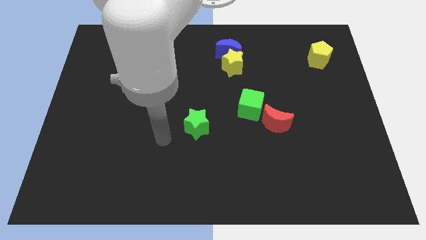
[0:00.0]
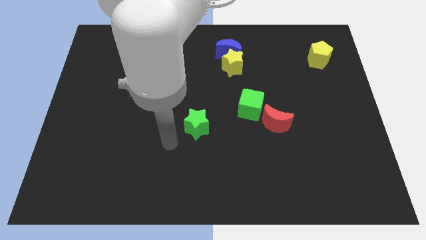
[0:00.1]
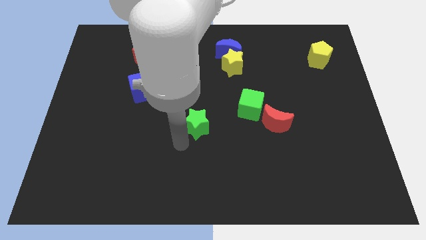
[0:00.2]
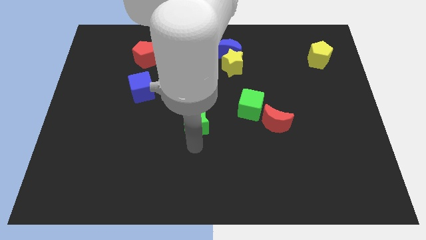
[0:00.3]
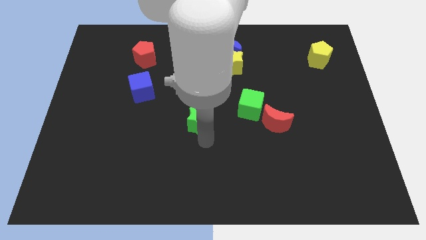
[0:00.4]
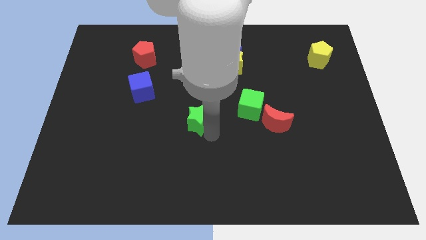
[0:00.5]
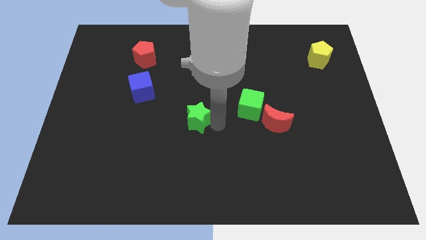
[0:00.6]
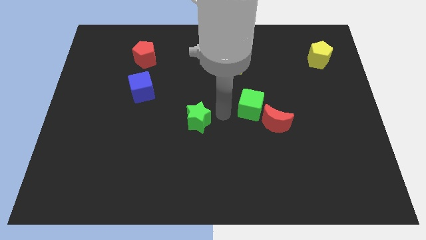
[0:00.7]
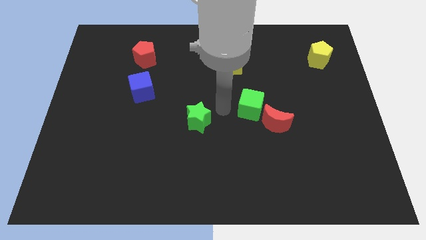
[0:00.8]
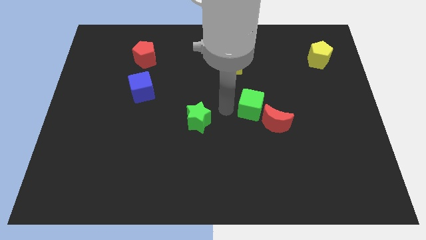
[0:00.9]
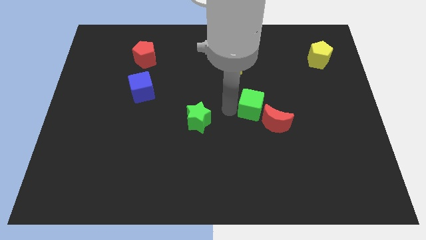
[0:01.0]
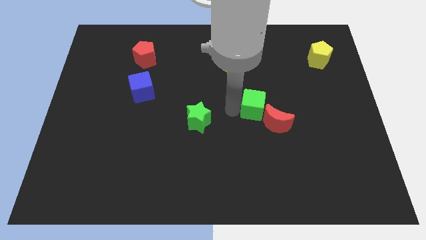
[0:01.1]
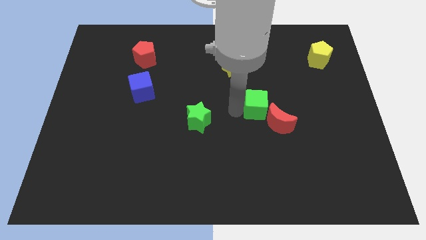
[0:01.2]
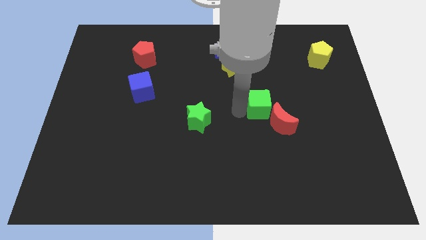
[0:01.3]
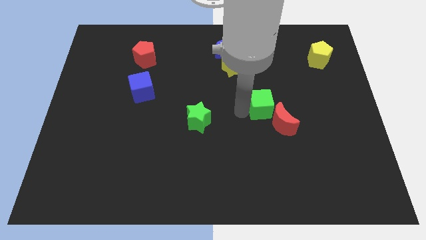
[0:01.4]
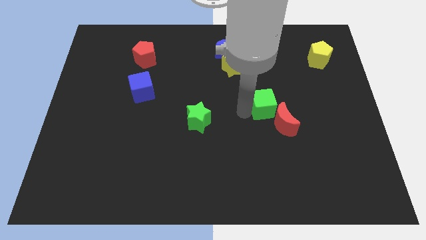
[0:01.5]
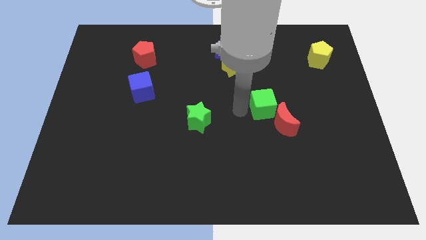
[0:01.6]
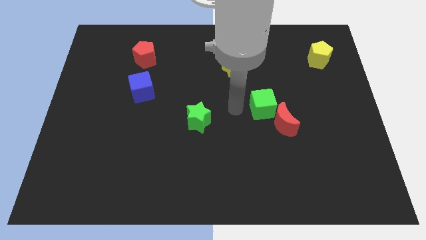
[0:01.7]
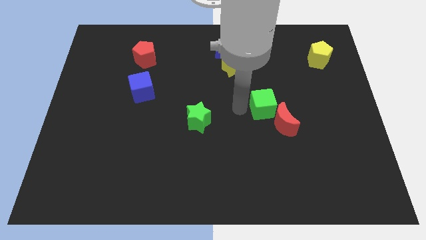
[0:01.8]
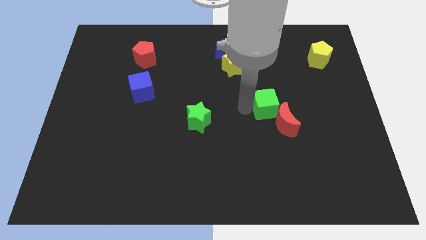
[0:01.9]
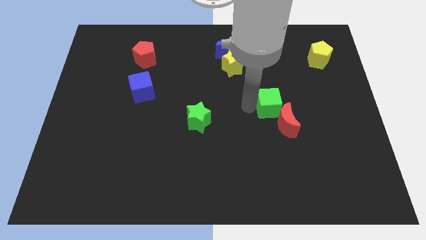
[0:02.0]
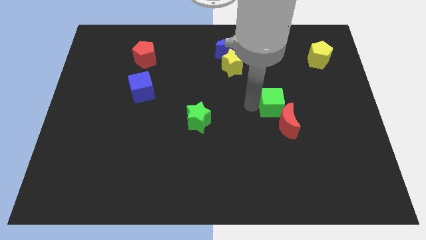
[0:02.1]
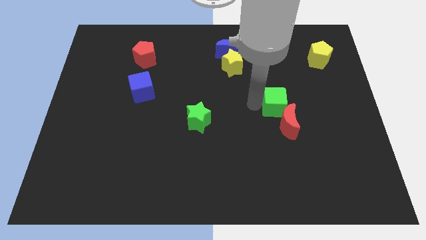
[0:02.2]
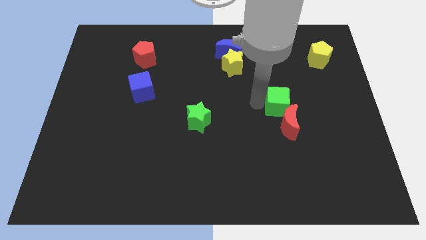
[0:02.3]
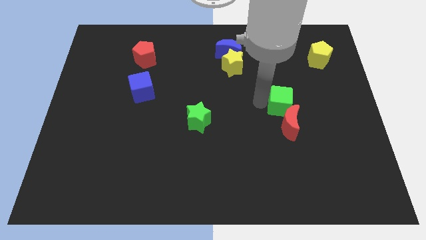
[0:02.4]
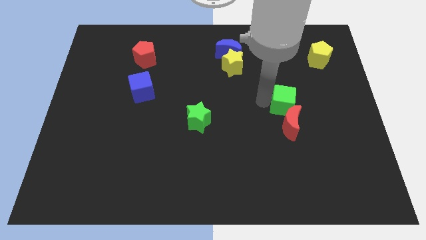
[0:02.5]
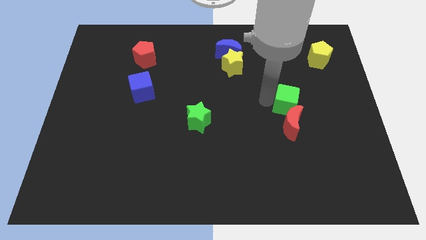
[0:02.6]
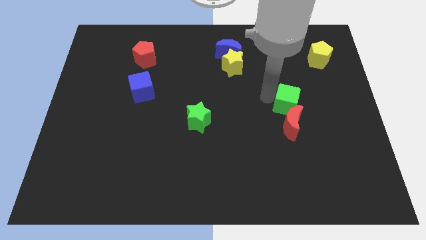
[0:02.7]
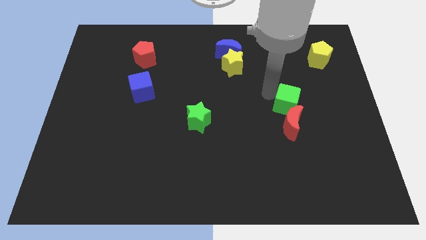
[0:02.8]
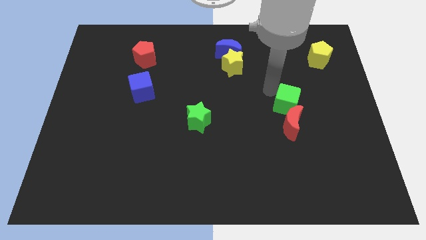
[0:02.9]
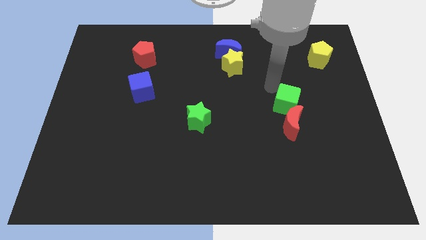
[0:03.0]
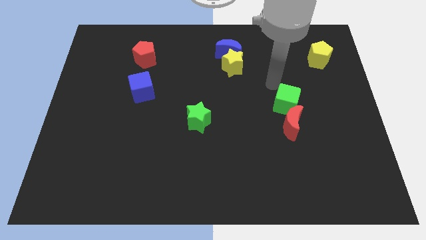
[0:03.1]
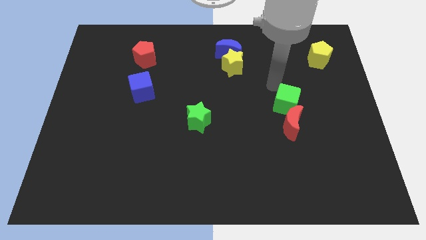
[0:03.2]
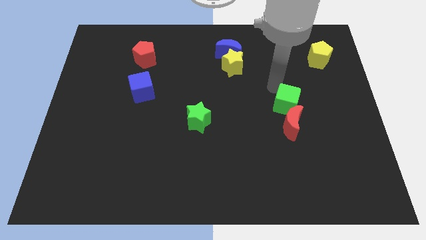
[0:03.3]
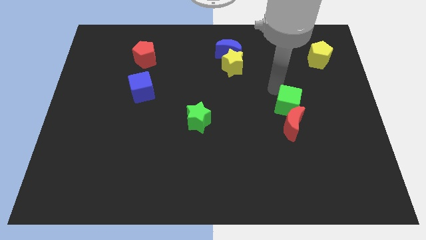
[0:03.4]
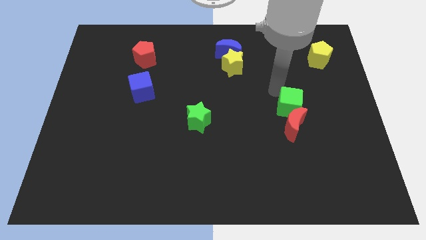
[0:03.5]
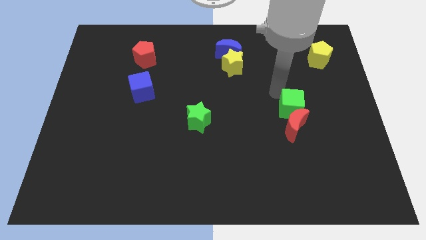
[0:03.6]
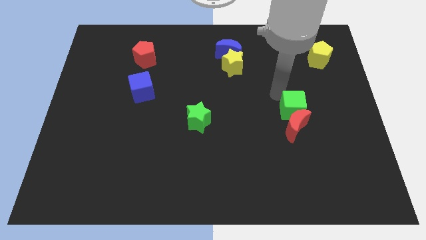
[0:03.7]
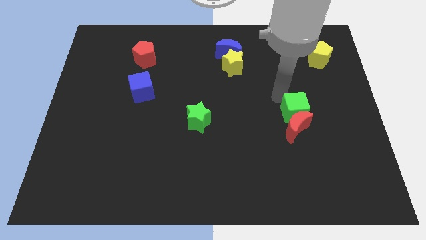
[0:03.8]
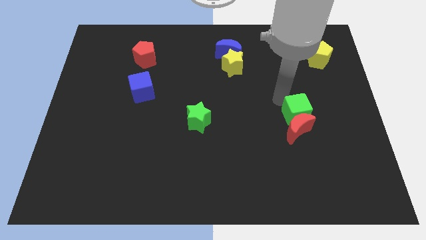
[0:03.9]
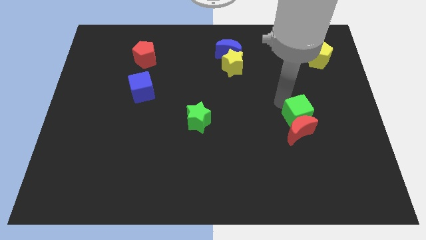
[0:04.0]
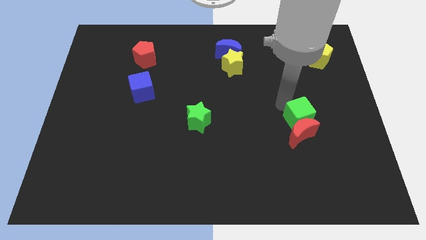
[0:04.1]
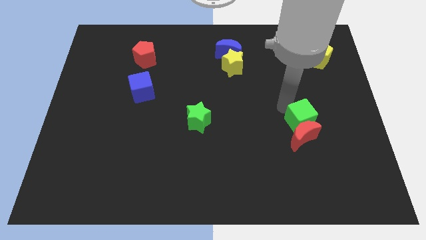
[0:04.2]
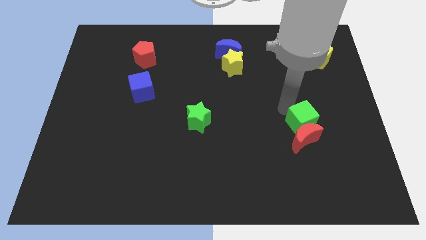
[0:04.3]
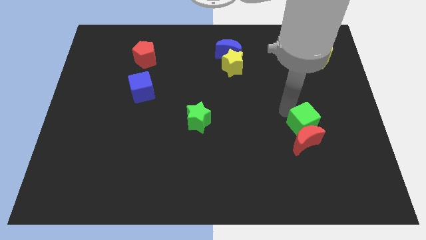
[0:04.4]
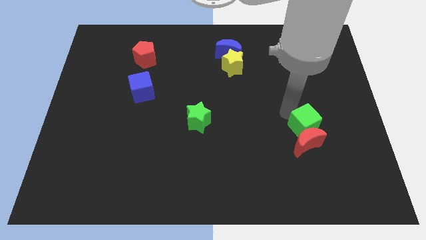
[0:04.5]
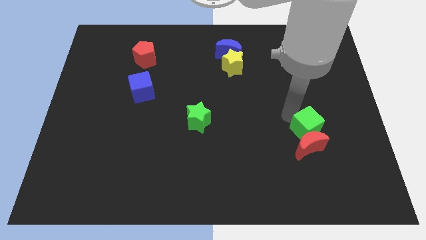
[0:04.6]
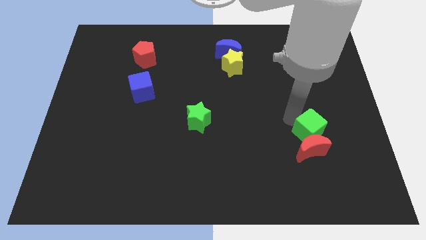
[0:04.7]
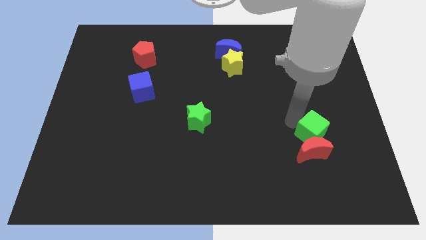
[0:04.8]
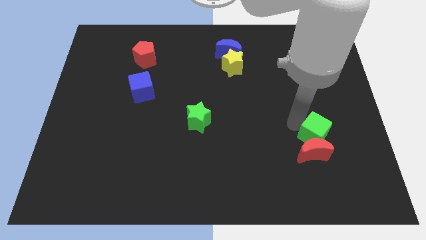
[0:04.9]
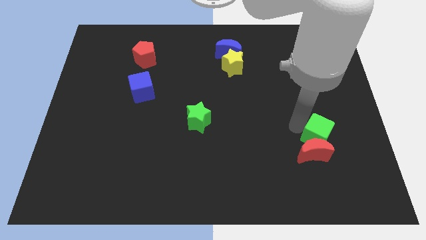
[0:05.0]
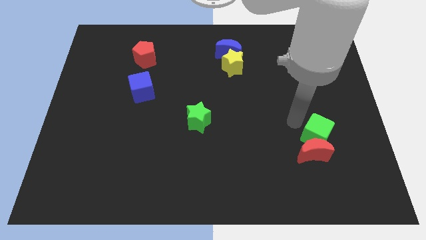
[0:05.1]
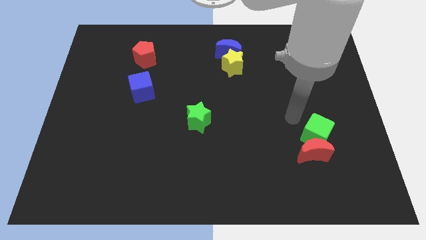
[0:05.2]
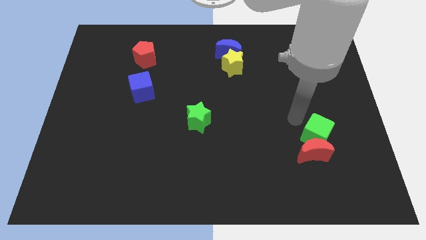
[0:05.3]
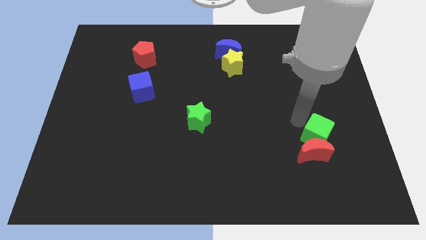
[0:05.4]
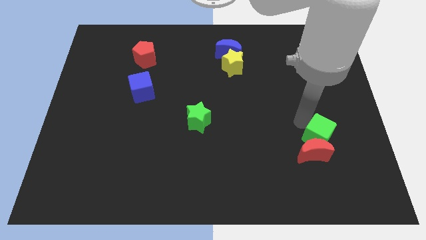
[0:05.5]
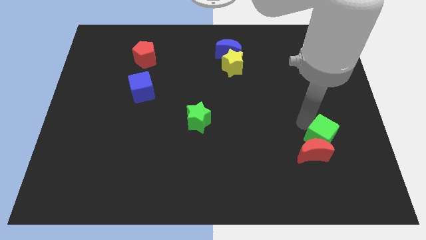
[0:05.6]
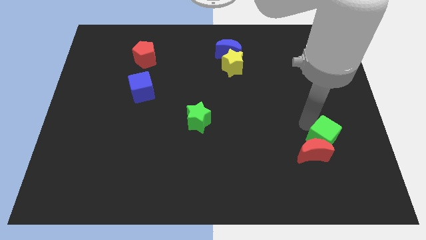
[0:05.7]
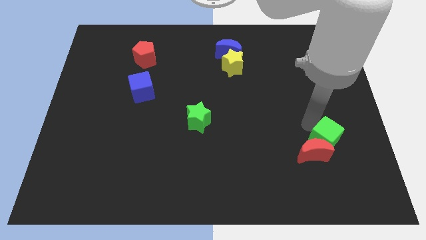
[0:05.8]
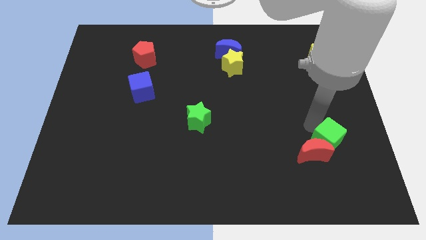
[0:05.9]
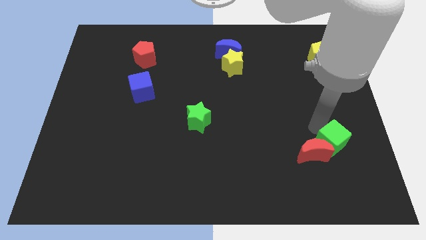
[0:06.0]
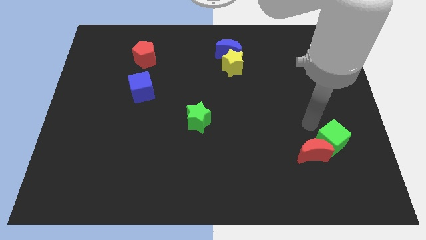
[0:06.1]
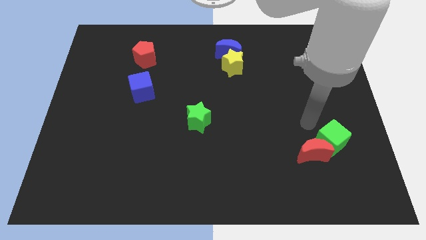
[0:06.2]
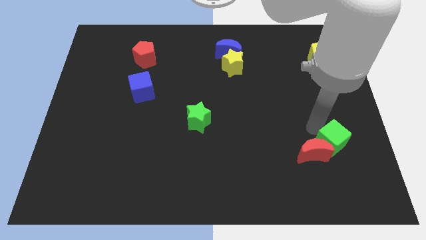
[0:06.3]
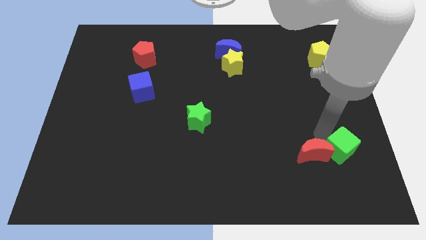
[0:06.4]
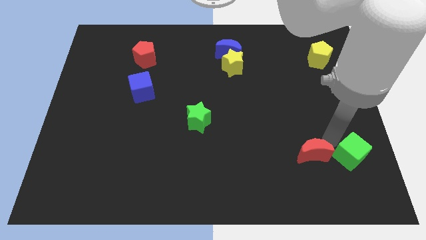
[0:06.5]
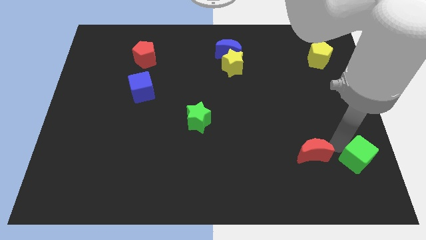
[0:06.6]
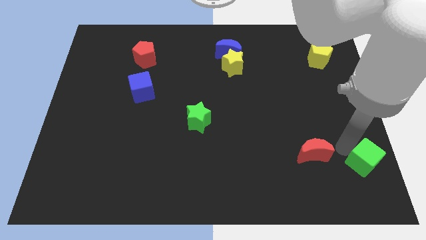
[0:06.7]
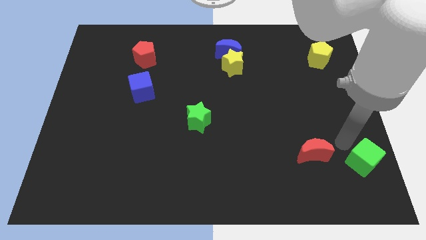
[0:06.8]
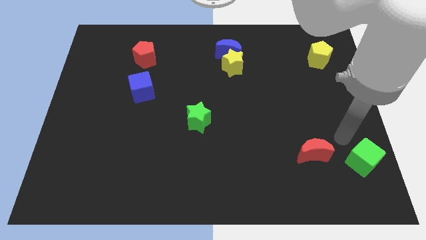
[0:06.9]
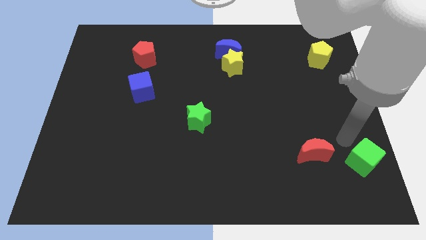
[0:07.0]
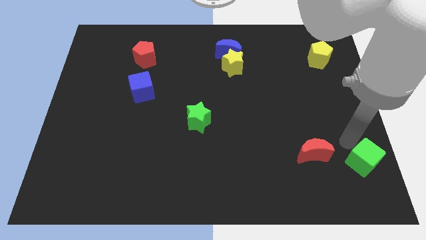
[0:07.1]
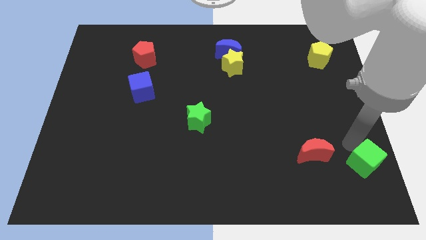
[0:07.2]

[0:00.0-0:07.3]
move the green cube to the bottom right

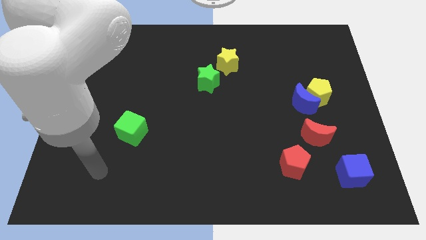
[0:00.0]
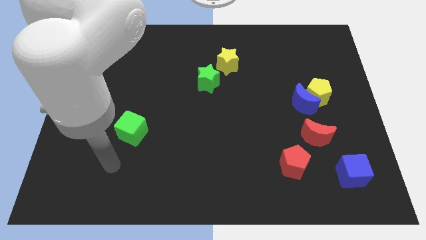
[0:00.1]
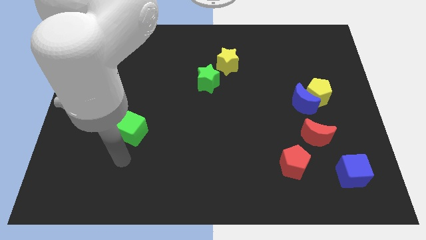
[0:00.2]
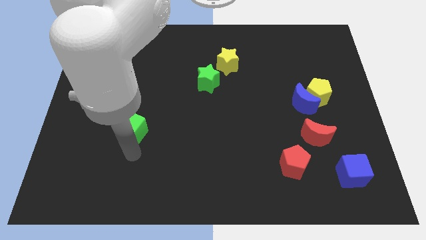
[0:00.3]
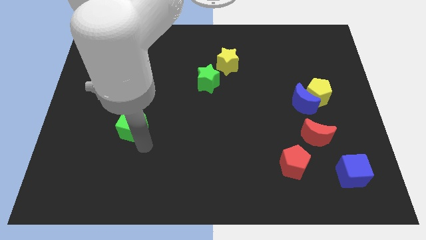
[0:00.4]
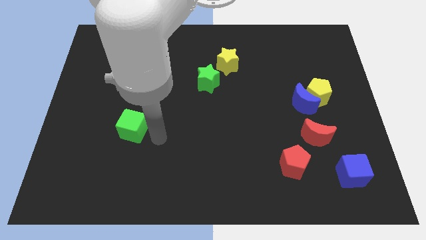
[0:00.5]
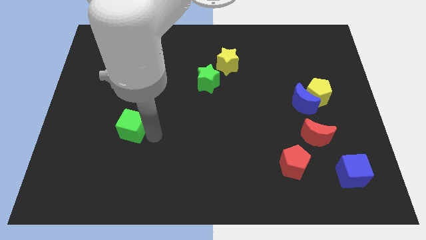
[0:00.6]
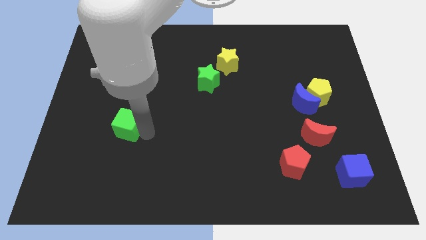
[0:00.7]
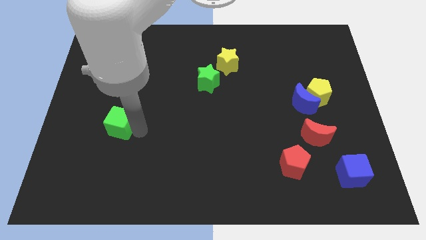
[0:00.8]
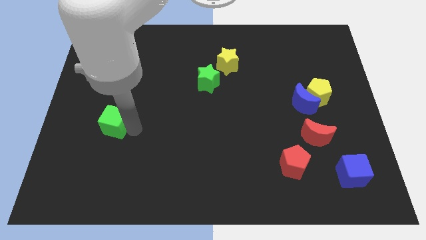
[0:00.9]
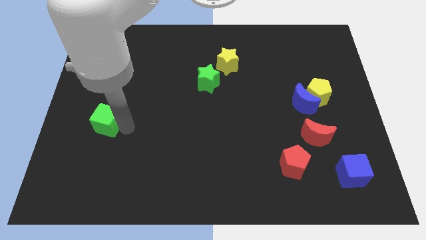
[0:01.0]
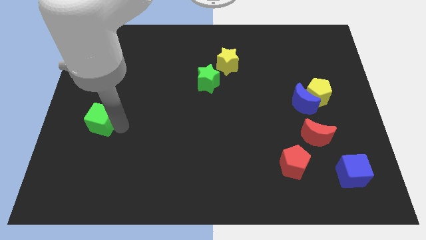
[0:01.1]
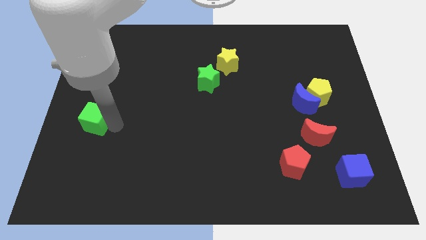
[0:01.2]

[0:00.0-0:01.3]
move the green cube to the left side of the board
